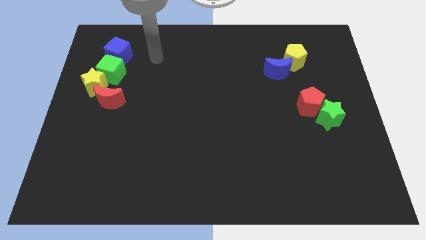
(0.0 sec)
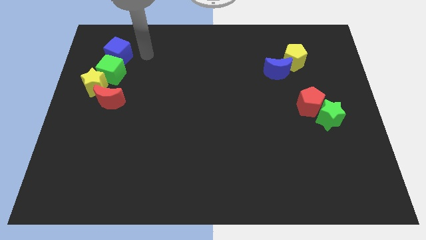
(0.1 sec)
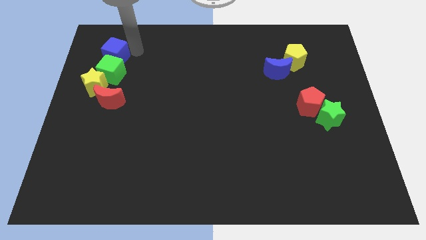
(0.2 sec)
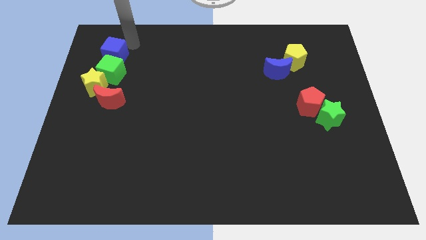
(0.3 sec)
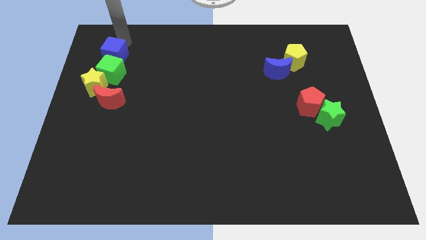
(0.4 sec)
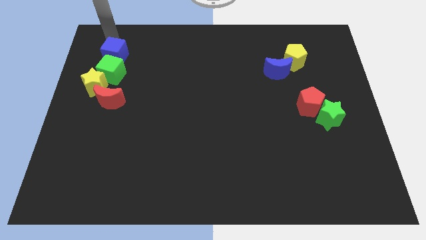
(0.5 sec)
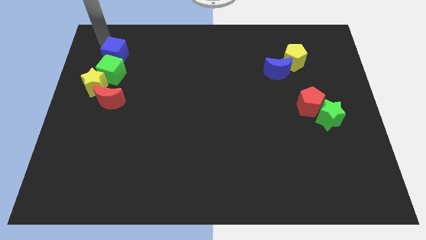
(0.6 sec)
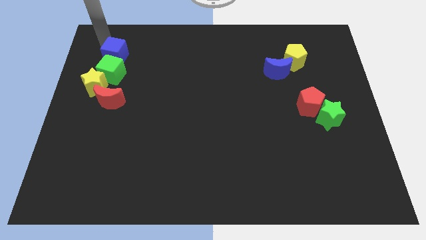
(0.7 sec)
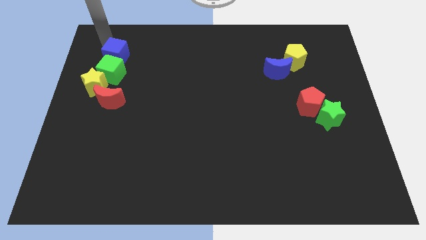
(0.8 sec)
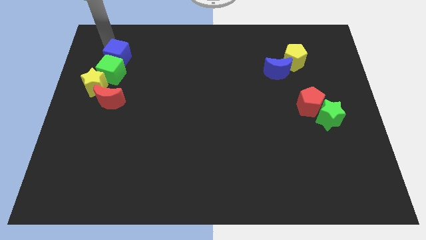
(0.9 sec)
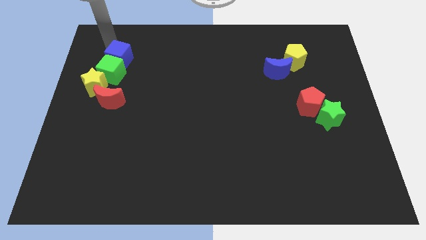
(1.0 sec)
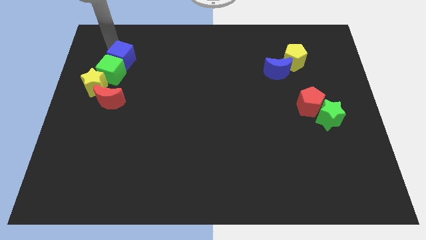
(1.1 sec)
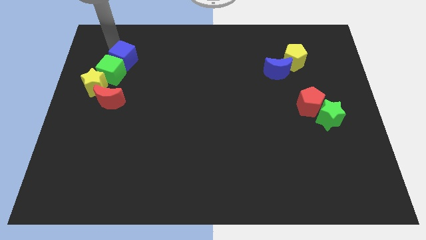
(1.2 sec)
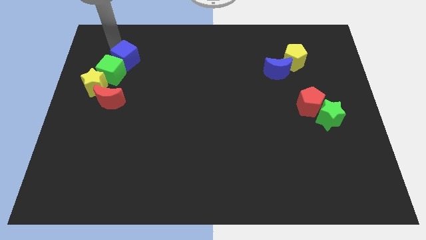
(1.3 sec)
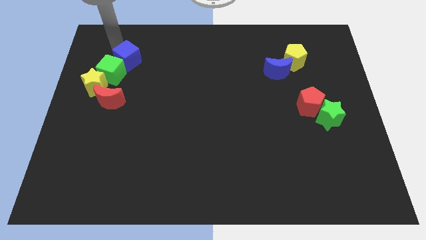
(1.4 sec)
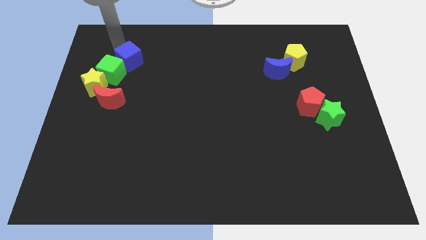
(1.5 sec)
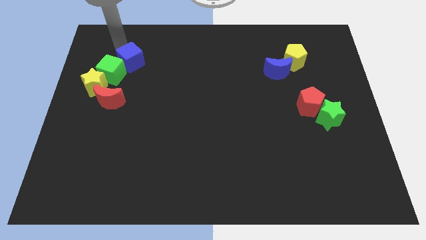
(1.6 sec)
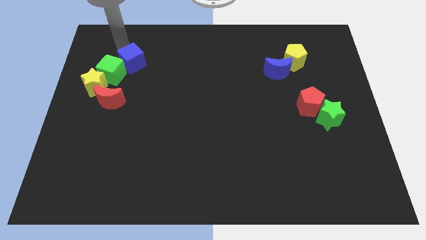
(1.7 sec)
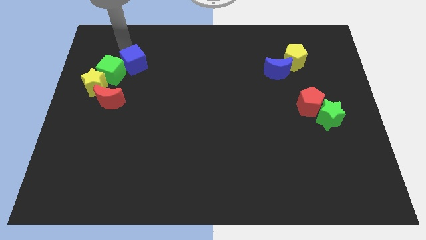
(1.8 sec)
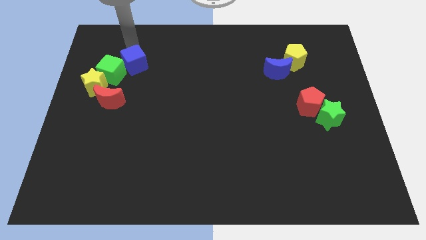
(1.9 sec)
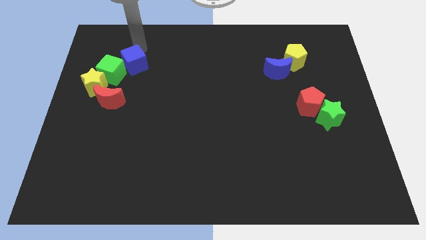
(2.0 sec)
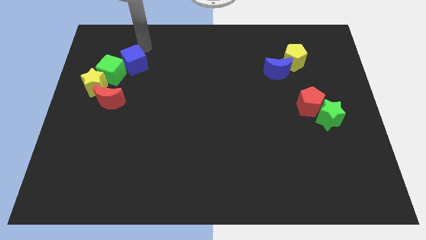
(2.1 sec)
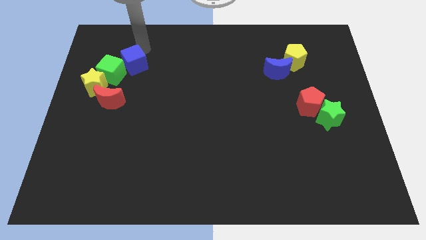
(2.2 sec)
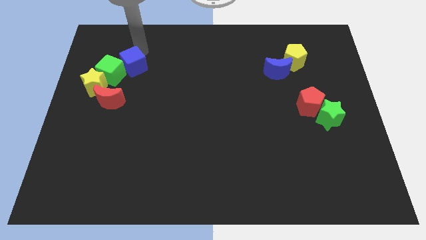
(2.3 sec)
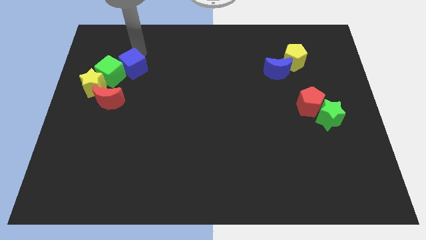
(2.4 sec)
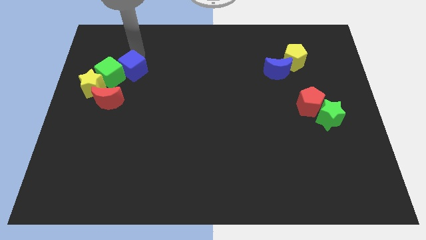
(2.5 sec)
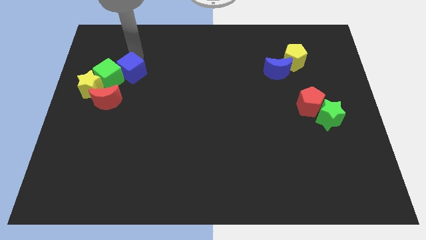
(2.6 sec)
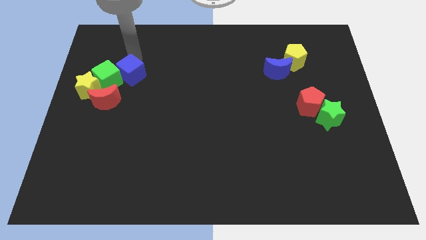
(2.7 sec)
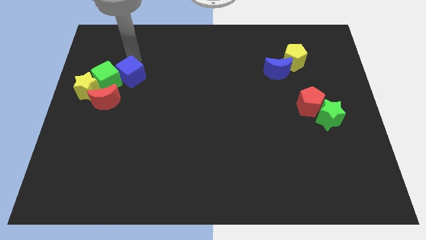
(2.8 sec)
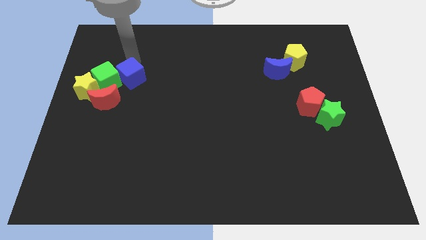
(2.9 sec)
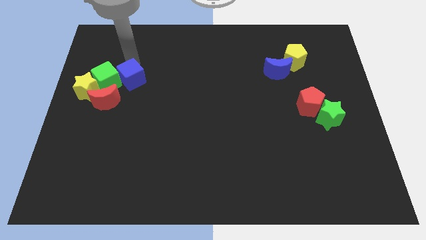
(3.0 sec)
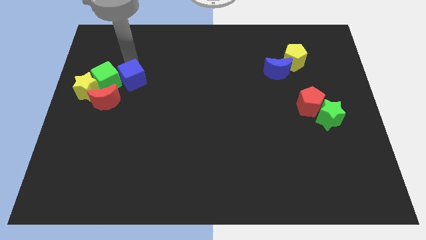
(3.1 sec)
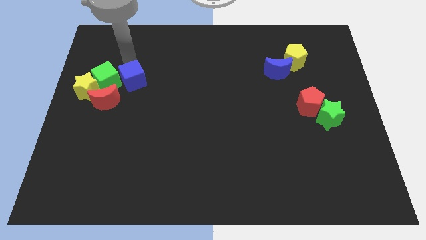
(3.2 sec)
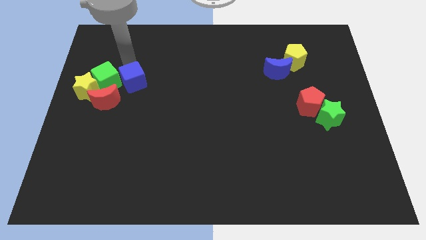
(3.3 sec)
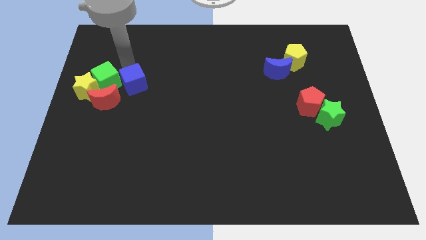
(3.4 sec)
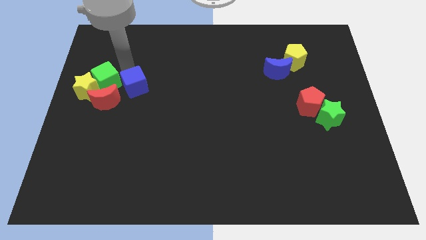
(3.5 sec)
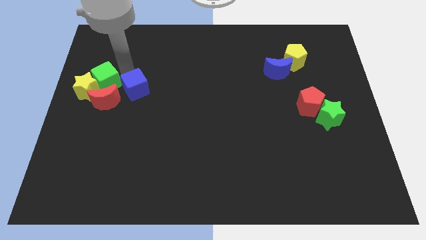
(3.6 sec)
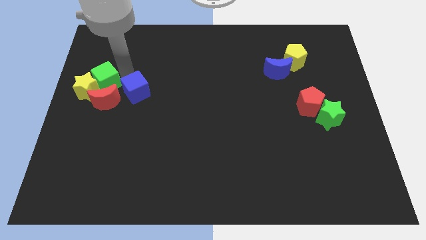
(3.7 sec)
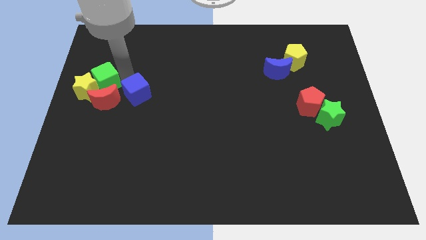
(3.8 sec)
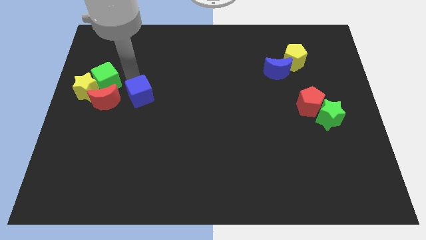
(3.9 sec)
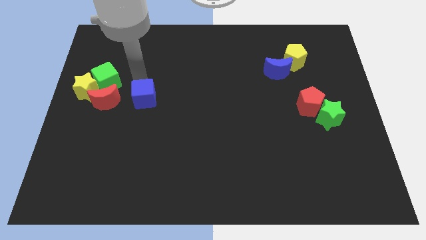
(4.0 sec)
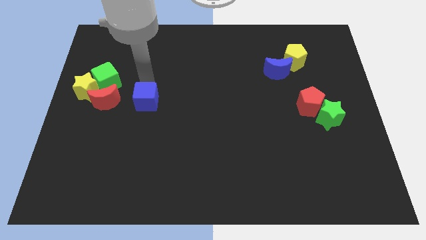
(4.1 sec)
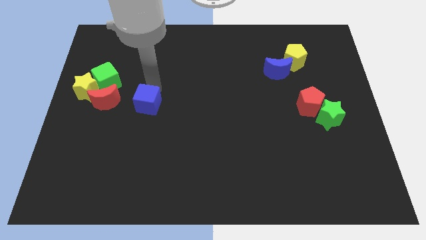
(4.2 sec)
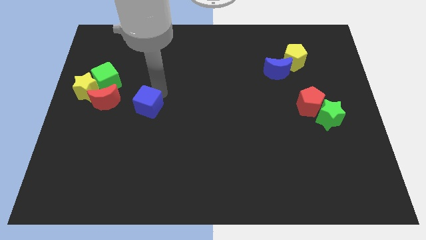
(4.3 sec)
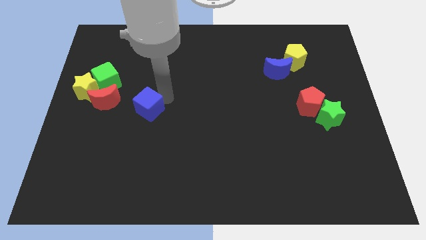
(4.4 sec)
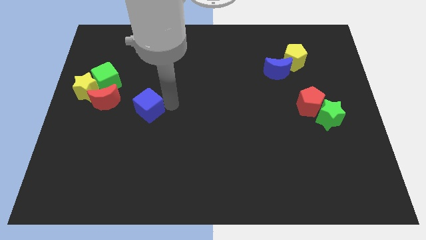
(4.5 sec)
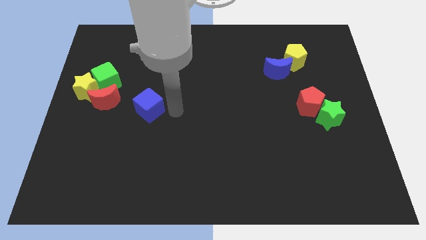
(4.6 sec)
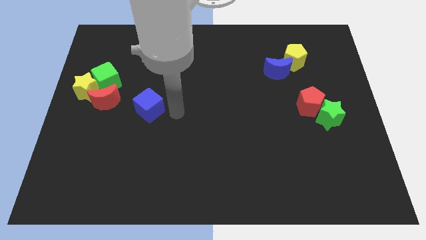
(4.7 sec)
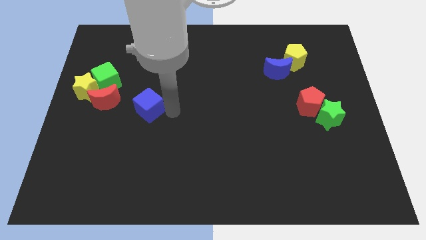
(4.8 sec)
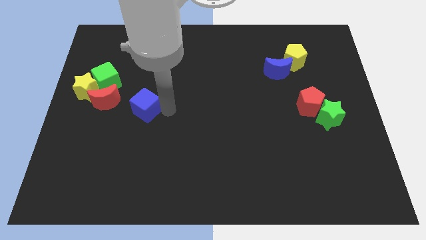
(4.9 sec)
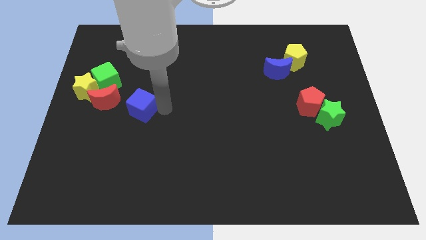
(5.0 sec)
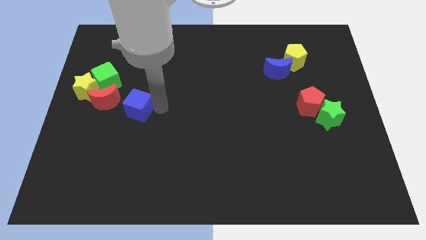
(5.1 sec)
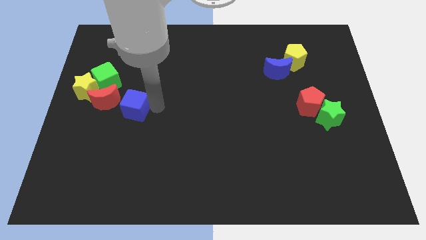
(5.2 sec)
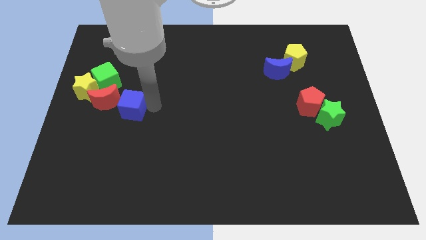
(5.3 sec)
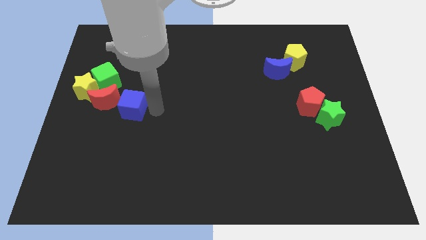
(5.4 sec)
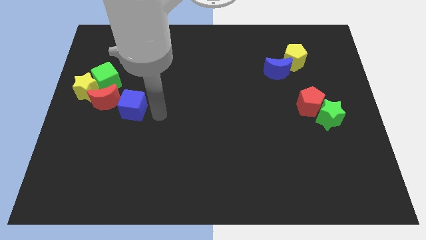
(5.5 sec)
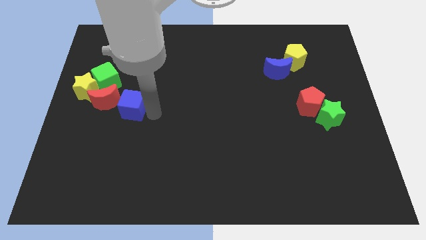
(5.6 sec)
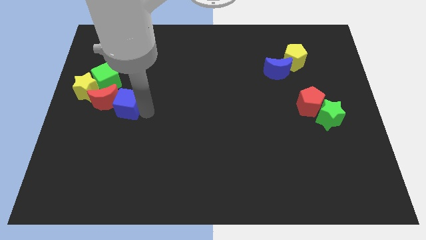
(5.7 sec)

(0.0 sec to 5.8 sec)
slide the blue cube to the red moon
